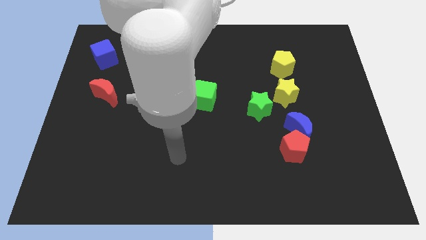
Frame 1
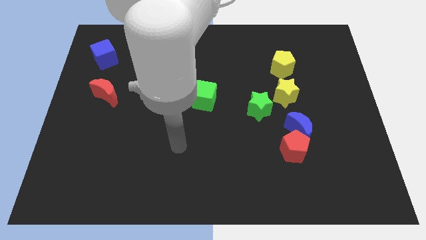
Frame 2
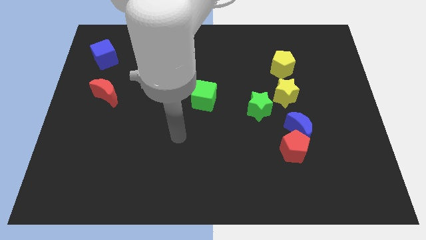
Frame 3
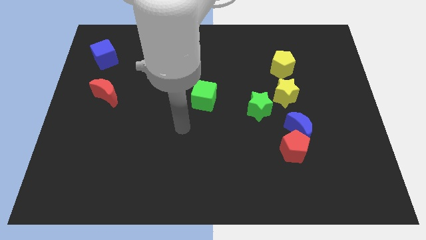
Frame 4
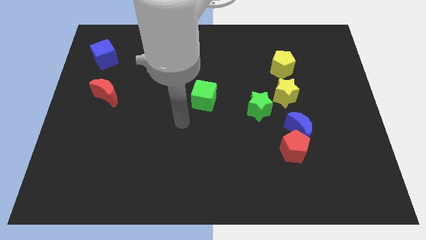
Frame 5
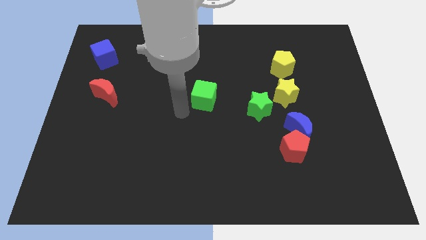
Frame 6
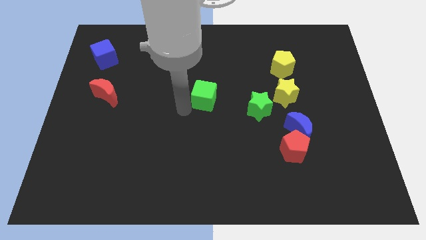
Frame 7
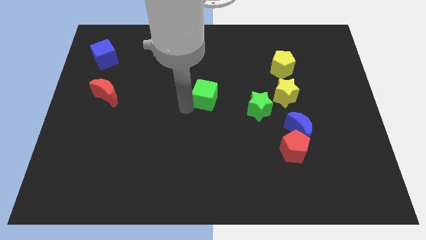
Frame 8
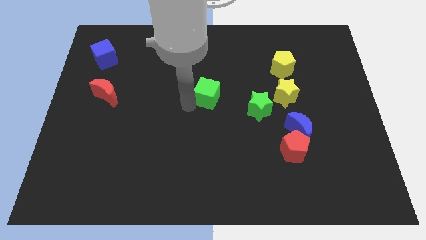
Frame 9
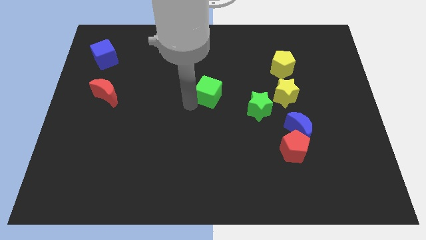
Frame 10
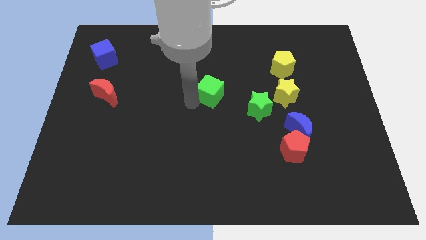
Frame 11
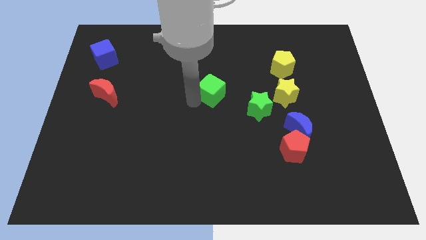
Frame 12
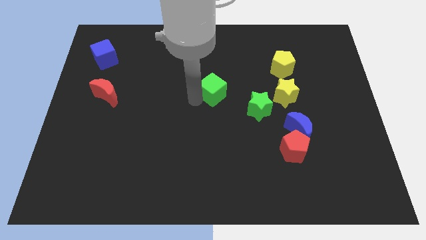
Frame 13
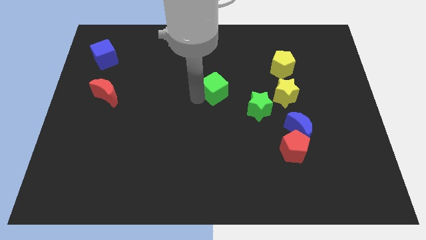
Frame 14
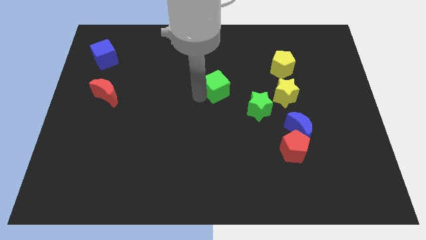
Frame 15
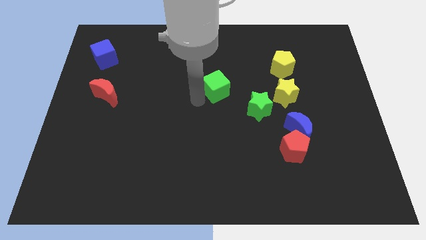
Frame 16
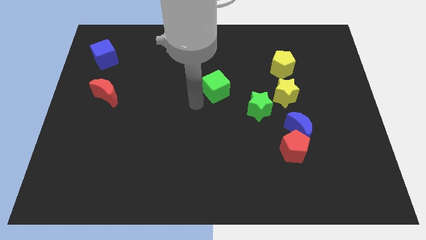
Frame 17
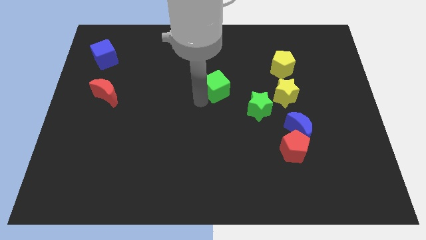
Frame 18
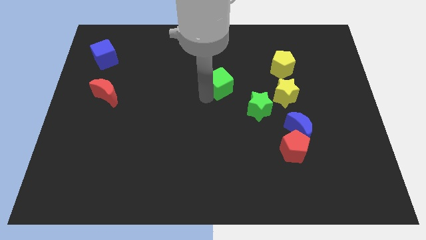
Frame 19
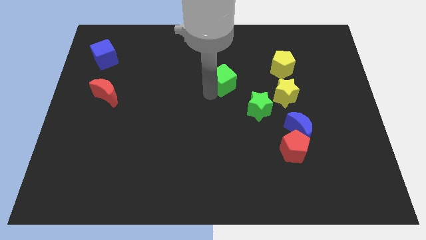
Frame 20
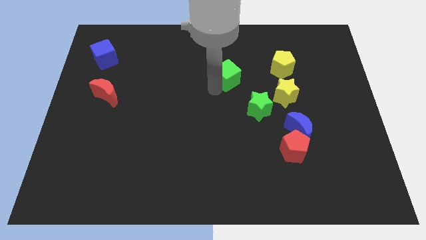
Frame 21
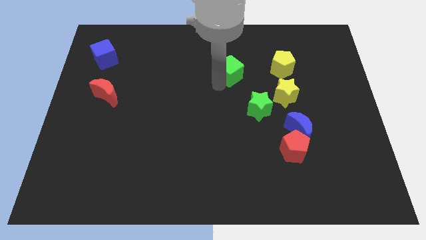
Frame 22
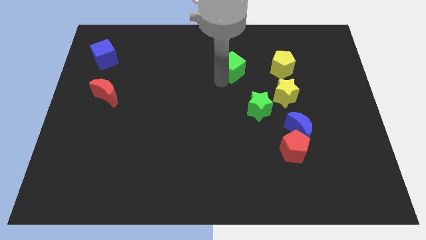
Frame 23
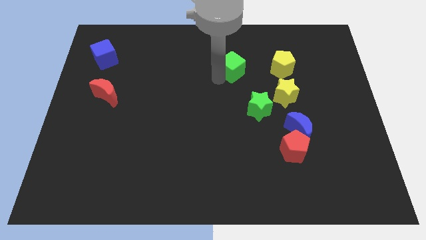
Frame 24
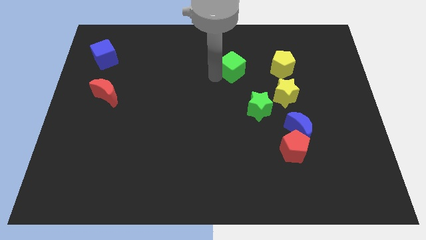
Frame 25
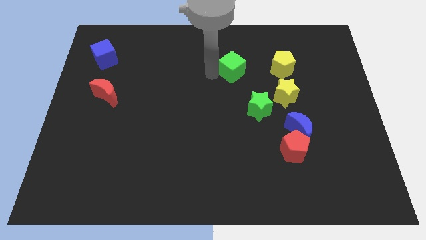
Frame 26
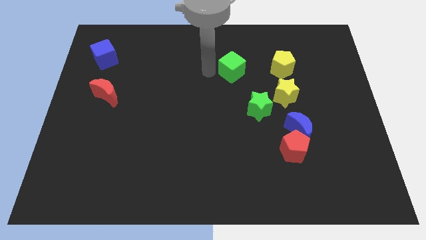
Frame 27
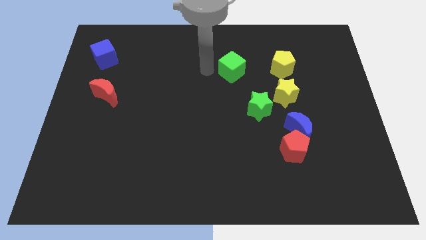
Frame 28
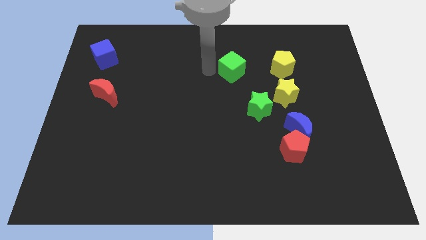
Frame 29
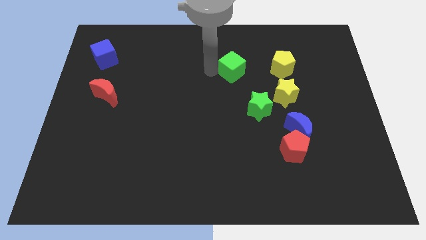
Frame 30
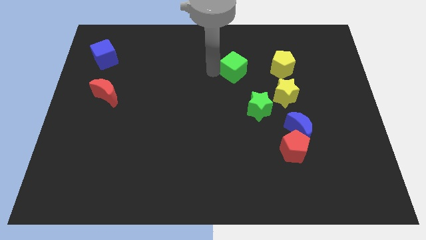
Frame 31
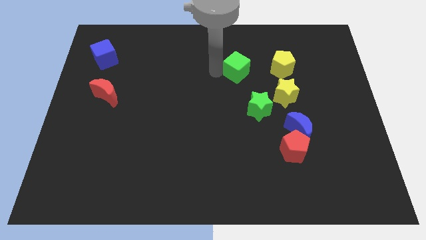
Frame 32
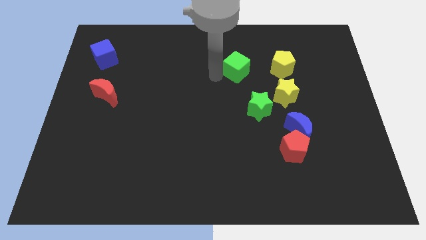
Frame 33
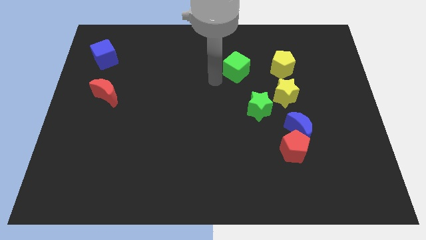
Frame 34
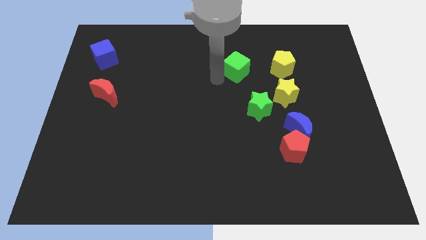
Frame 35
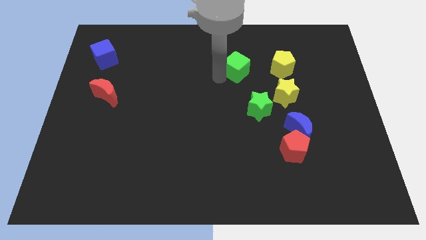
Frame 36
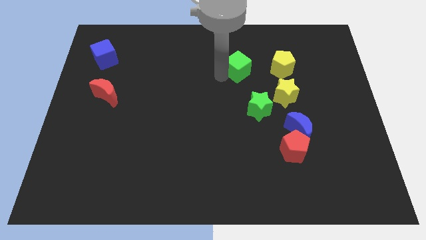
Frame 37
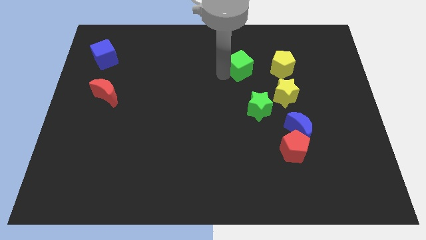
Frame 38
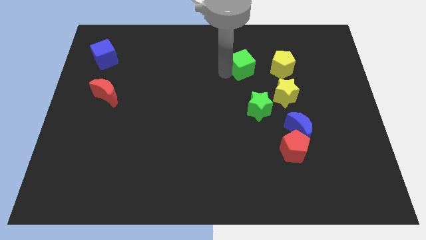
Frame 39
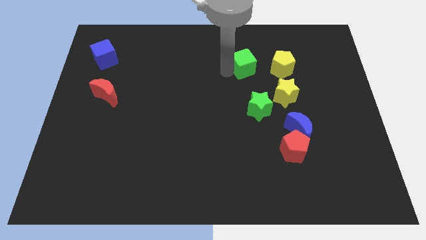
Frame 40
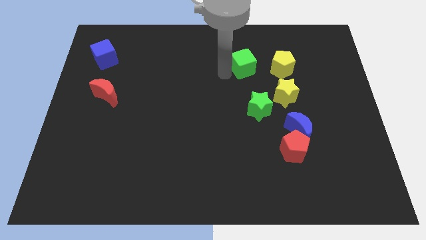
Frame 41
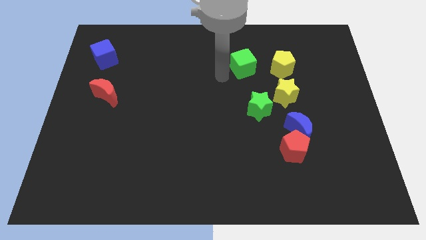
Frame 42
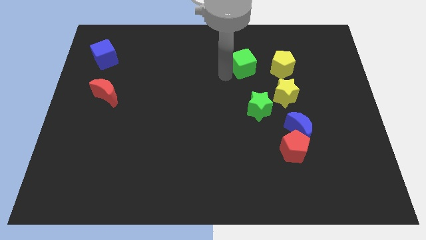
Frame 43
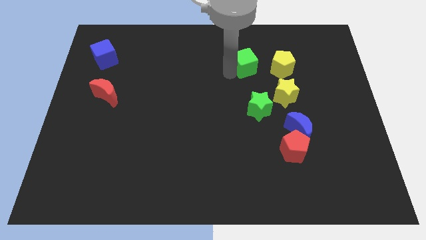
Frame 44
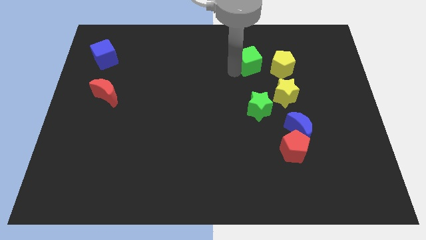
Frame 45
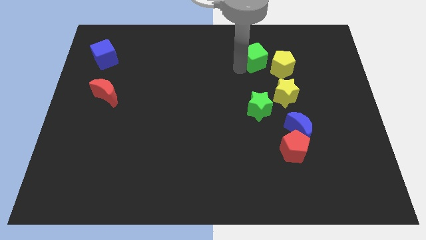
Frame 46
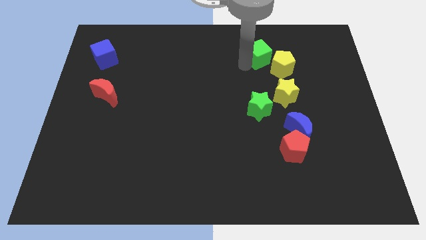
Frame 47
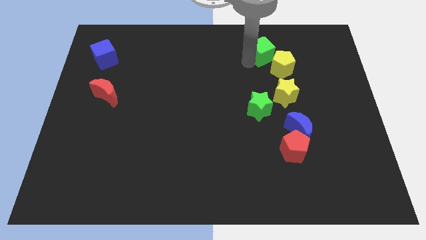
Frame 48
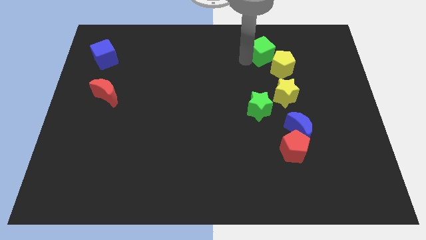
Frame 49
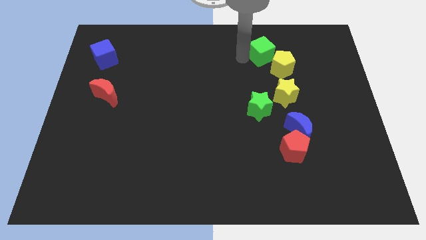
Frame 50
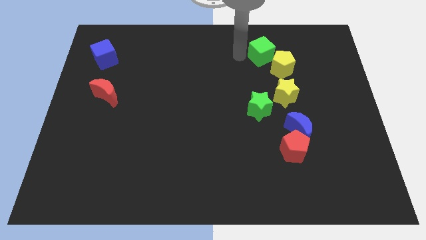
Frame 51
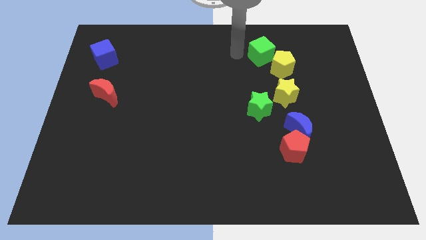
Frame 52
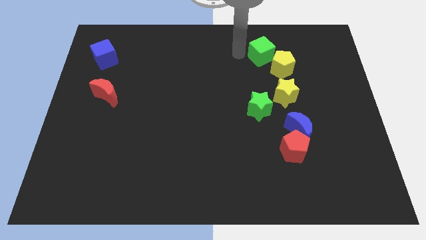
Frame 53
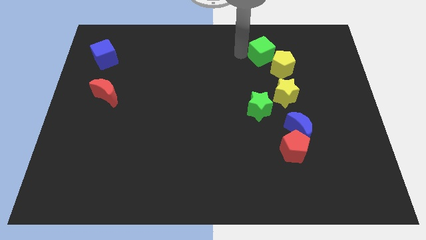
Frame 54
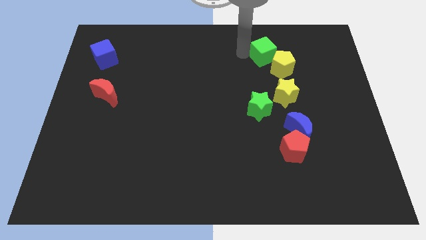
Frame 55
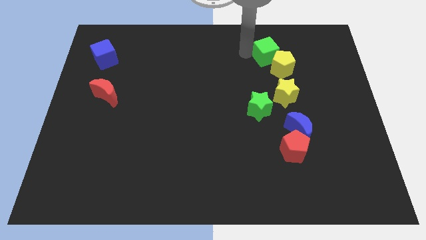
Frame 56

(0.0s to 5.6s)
slide the green cube above the yellow star

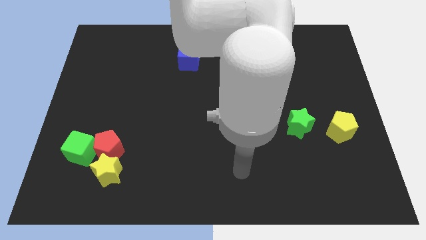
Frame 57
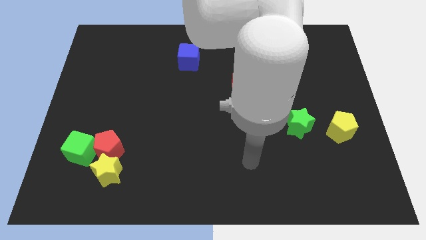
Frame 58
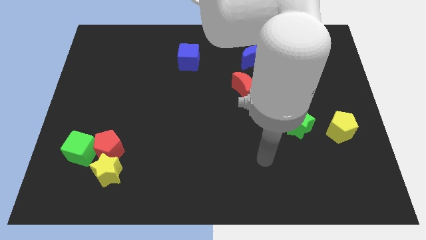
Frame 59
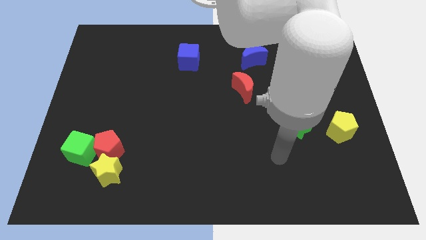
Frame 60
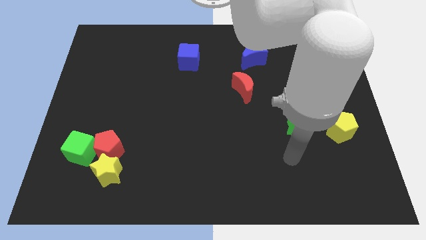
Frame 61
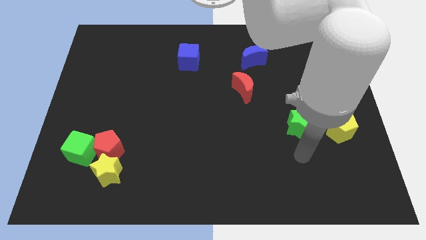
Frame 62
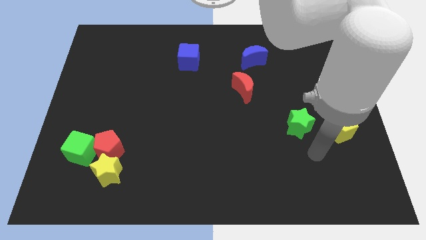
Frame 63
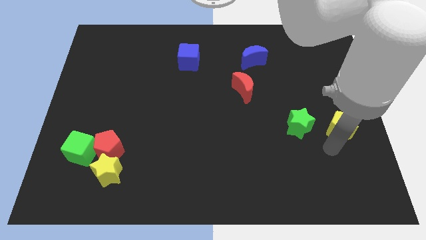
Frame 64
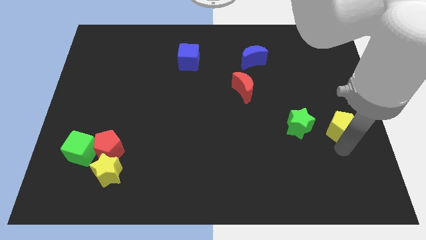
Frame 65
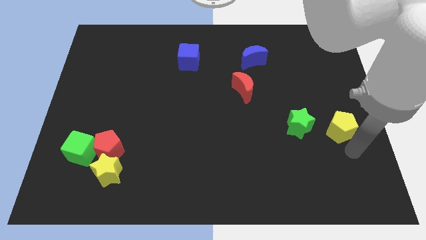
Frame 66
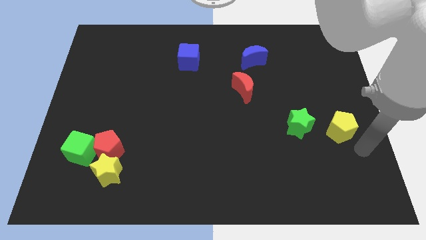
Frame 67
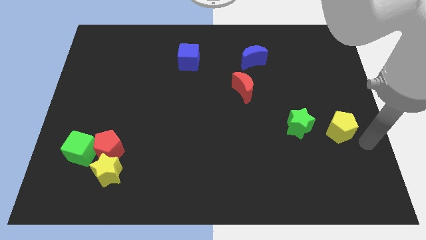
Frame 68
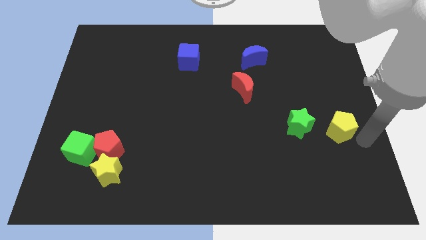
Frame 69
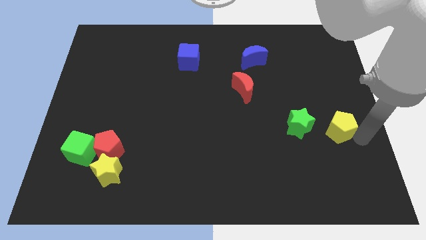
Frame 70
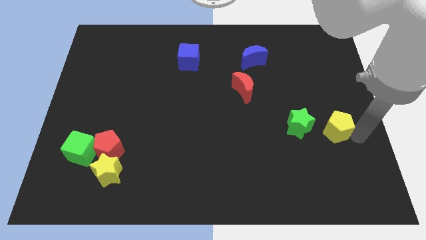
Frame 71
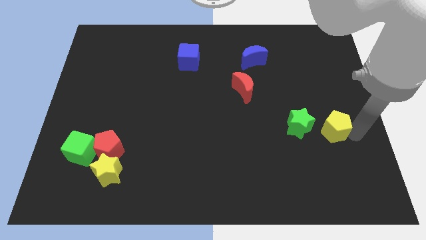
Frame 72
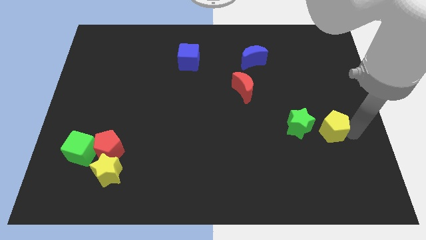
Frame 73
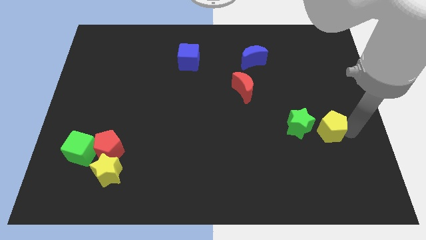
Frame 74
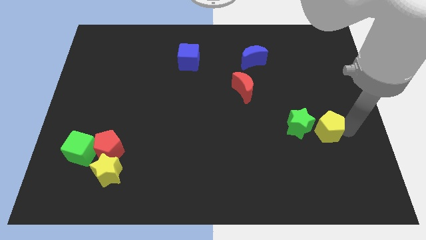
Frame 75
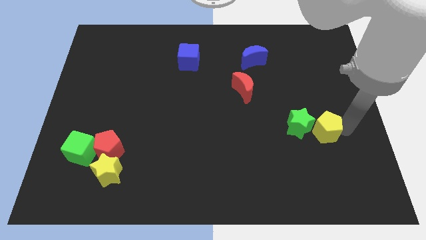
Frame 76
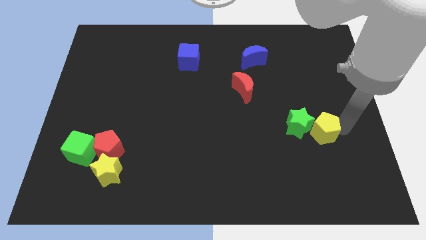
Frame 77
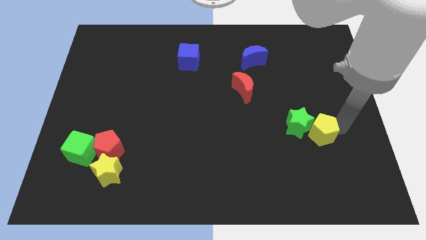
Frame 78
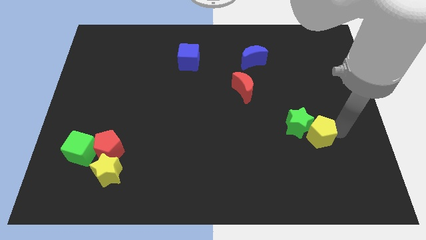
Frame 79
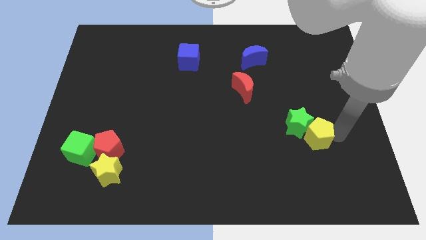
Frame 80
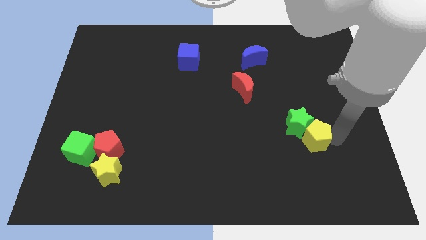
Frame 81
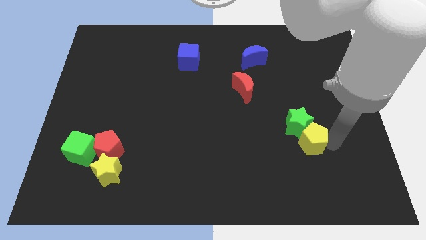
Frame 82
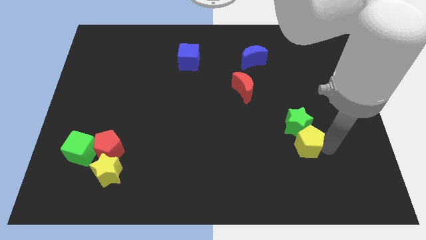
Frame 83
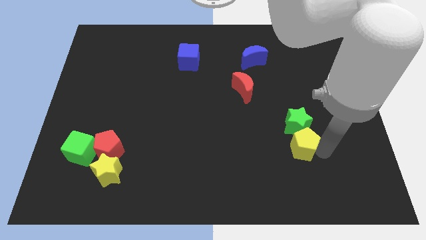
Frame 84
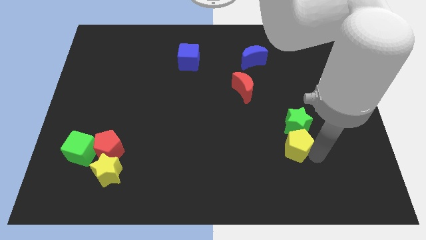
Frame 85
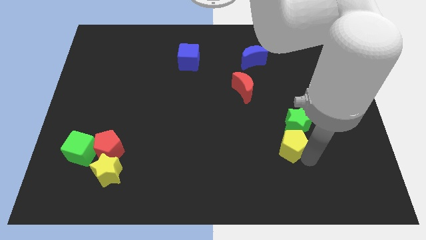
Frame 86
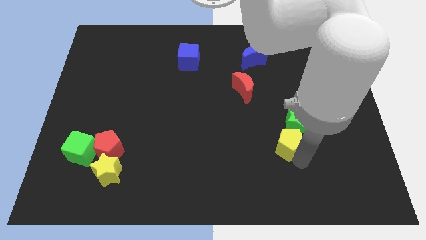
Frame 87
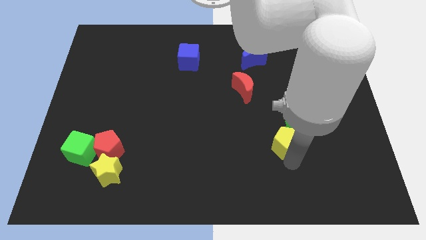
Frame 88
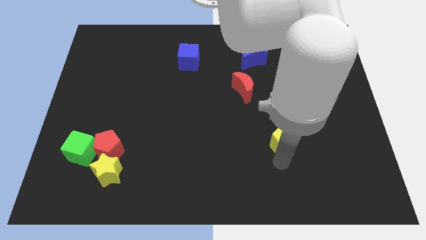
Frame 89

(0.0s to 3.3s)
push the yellow pentagon left of the green star
